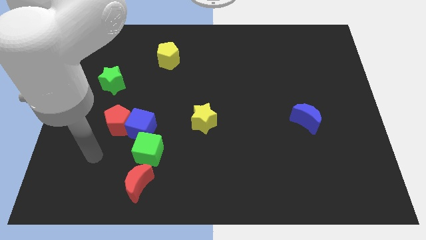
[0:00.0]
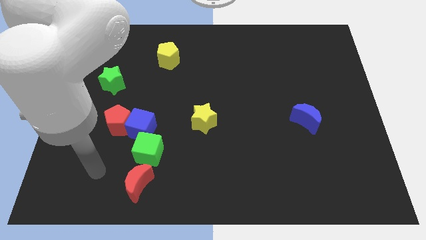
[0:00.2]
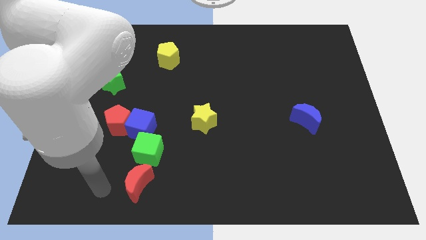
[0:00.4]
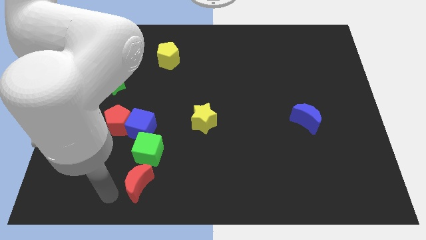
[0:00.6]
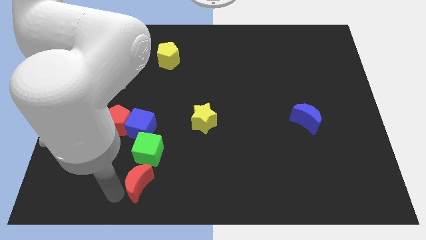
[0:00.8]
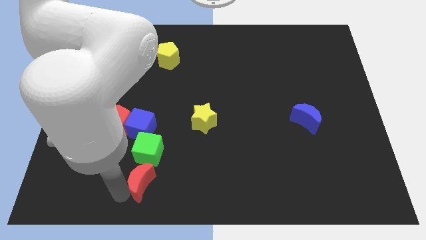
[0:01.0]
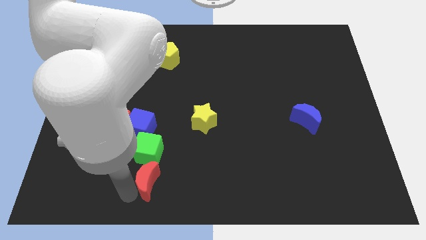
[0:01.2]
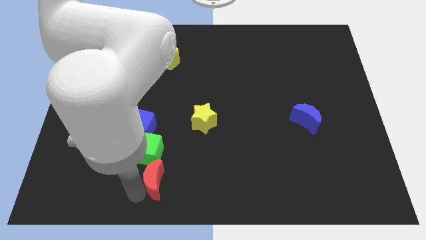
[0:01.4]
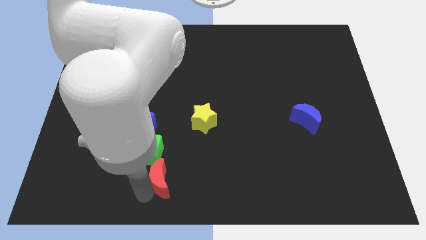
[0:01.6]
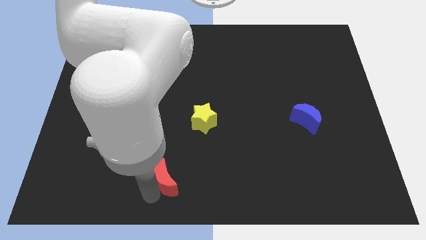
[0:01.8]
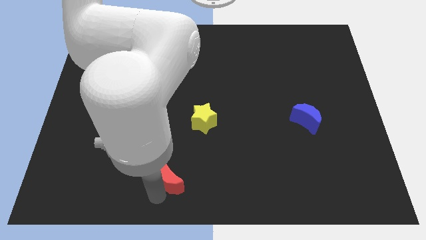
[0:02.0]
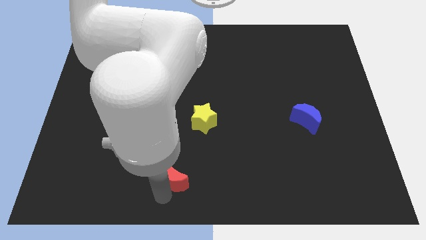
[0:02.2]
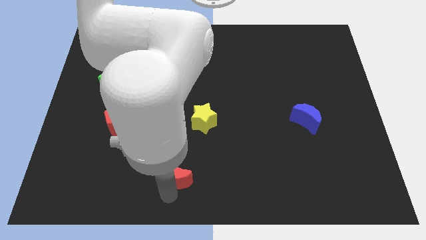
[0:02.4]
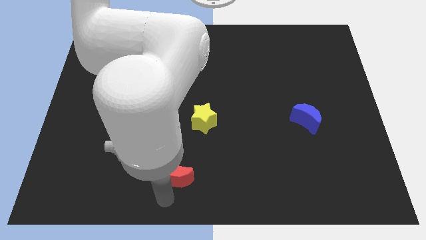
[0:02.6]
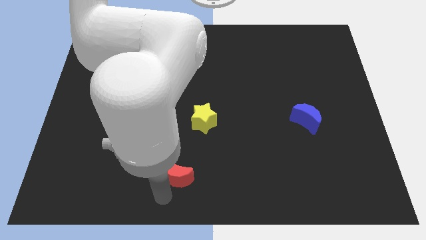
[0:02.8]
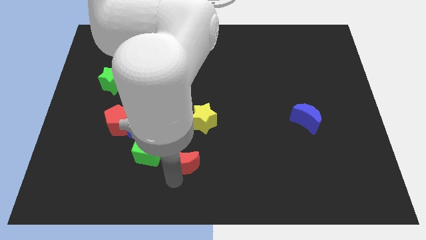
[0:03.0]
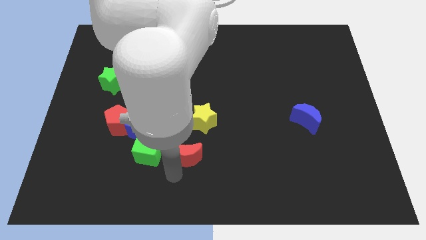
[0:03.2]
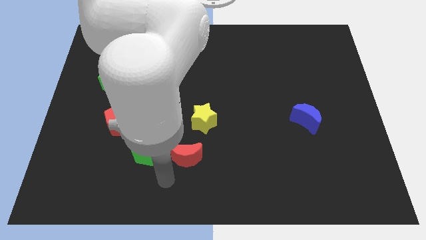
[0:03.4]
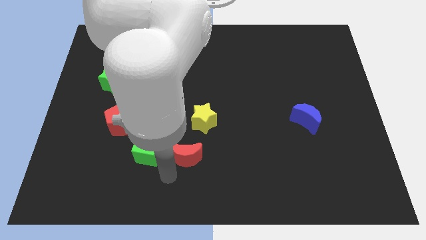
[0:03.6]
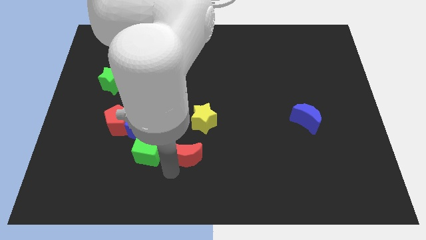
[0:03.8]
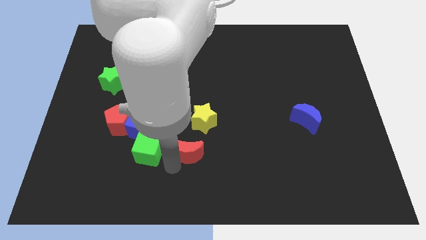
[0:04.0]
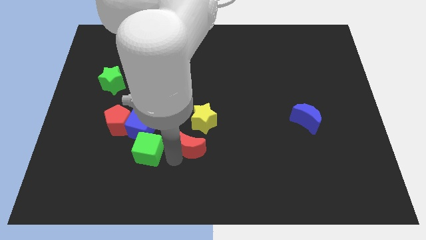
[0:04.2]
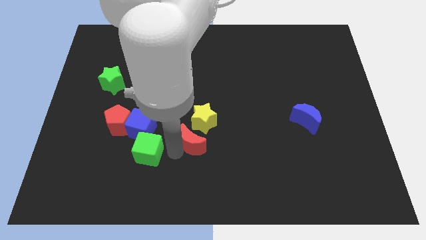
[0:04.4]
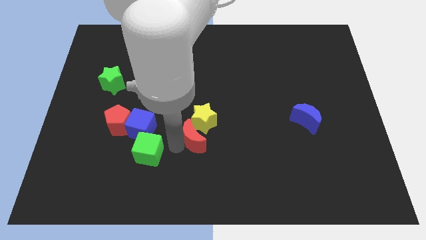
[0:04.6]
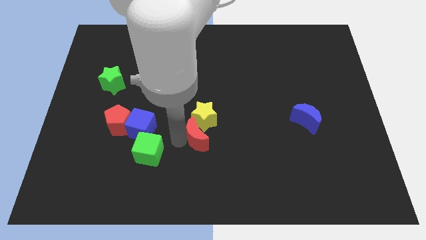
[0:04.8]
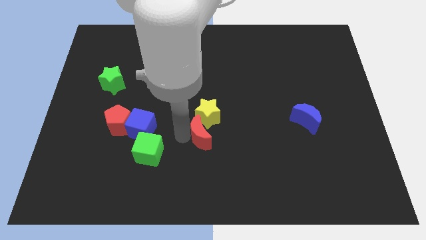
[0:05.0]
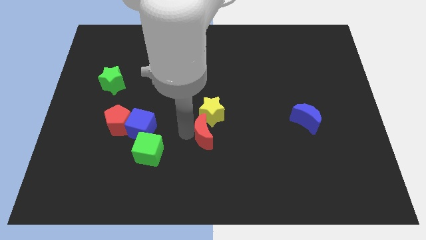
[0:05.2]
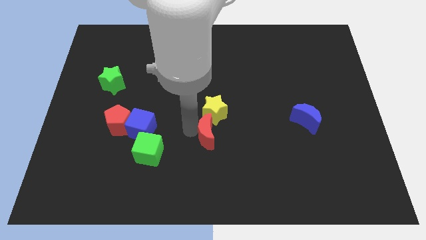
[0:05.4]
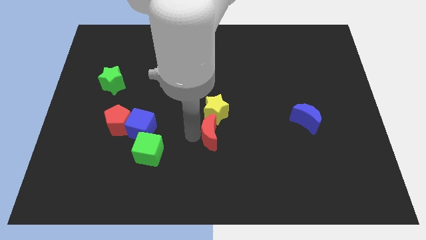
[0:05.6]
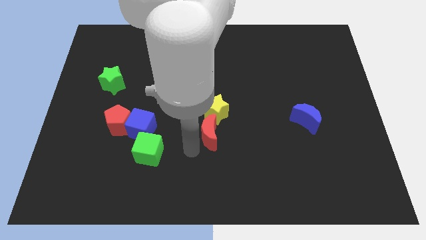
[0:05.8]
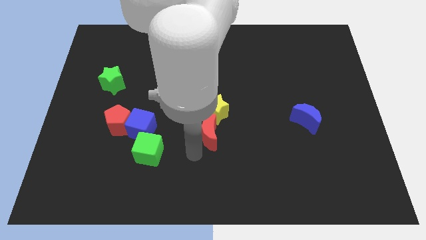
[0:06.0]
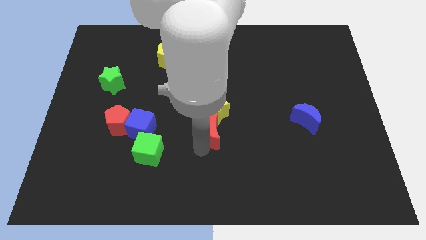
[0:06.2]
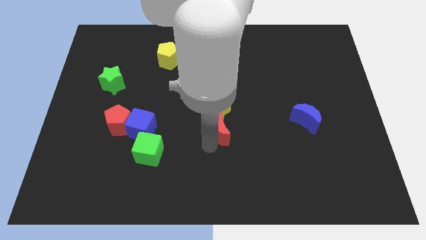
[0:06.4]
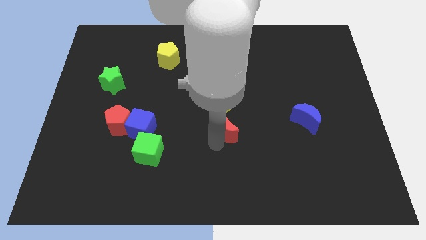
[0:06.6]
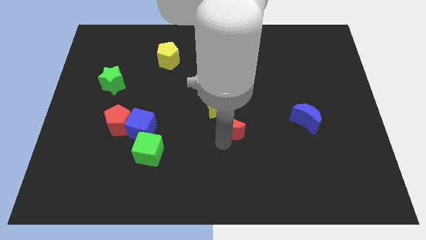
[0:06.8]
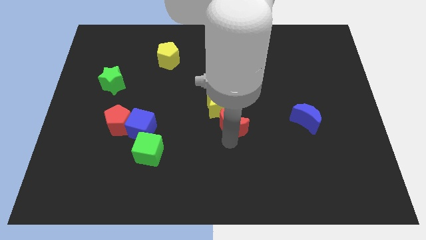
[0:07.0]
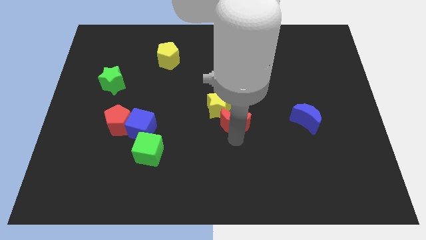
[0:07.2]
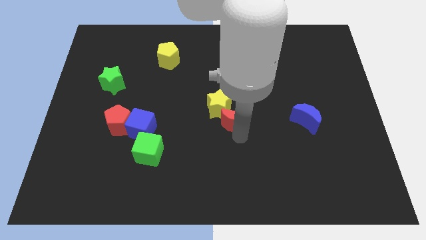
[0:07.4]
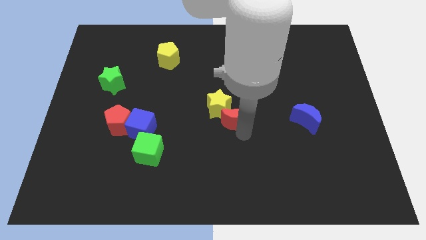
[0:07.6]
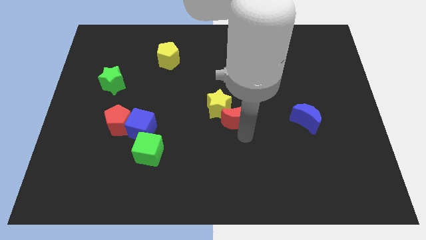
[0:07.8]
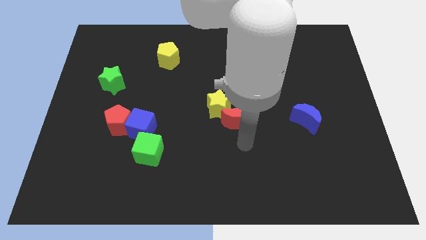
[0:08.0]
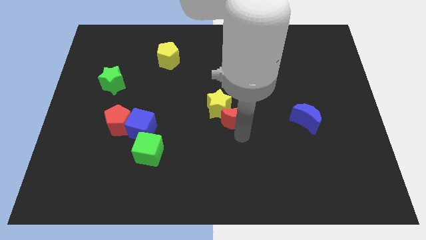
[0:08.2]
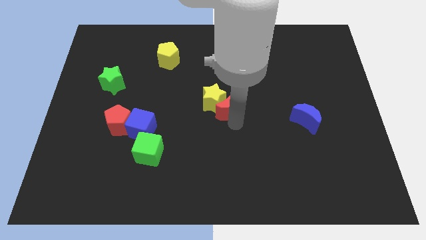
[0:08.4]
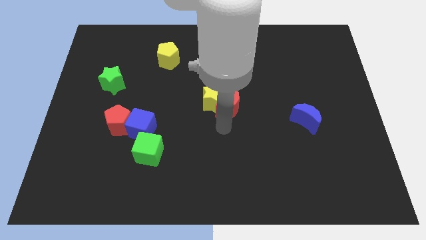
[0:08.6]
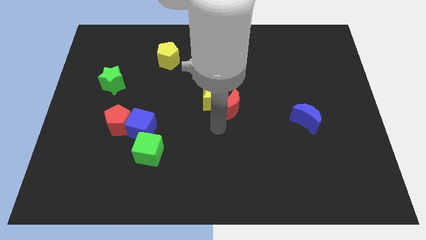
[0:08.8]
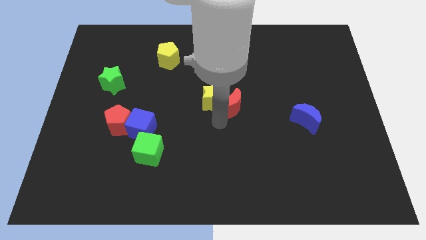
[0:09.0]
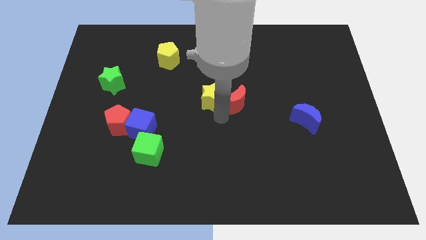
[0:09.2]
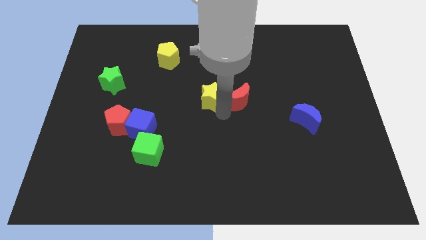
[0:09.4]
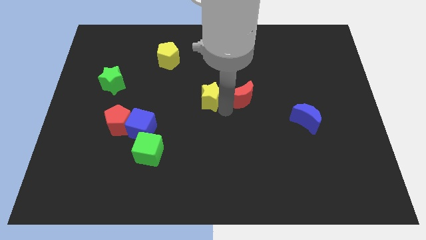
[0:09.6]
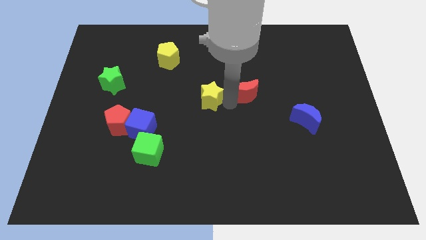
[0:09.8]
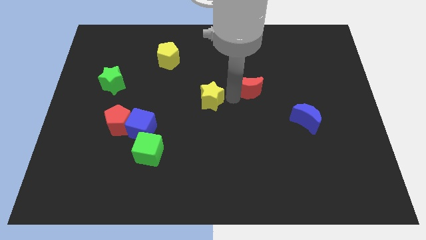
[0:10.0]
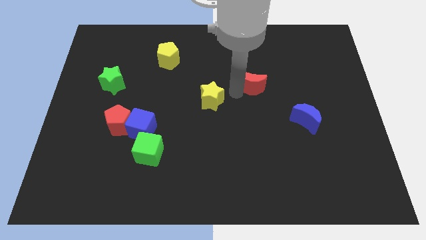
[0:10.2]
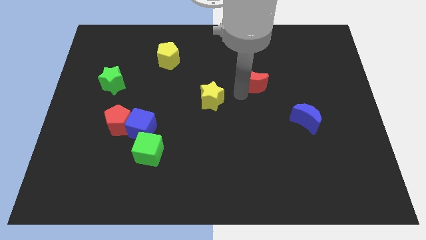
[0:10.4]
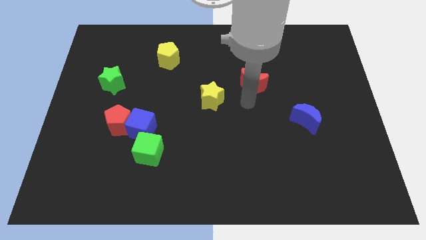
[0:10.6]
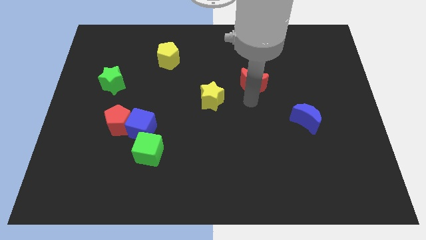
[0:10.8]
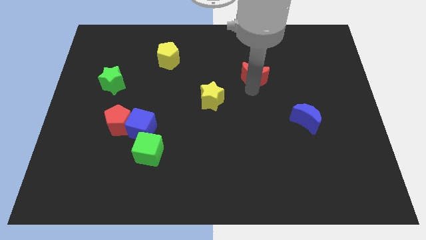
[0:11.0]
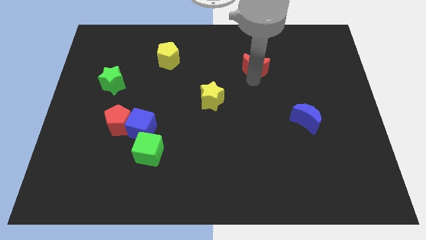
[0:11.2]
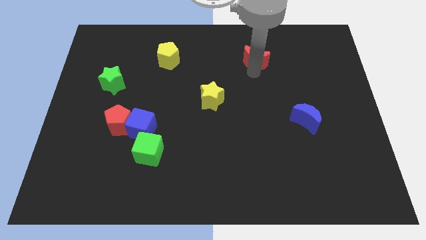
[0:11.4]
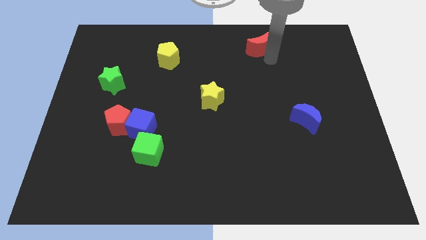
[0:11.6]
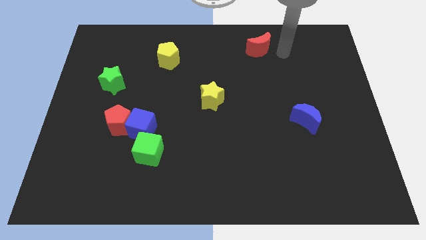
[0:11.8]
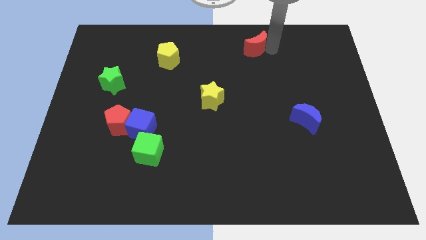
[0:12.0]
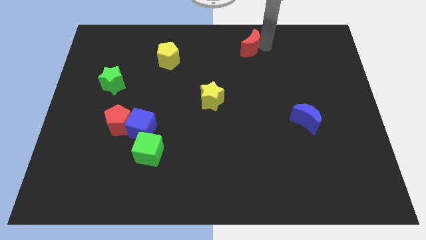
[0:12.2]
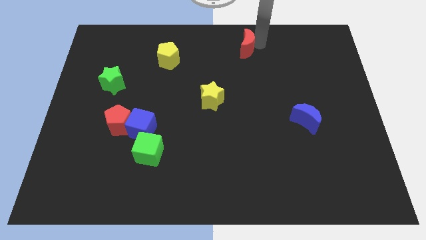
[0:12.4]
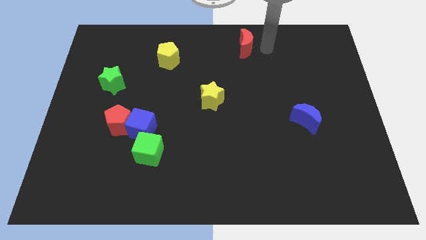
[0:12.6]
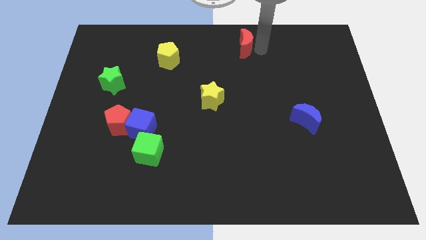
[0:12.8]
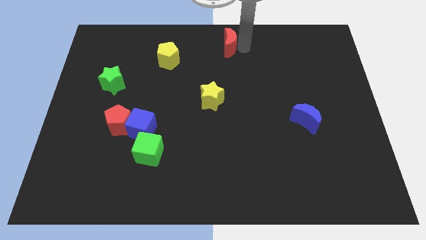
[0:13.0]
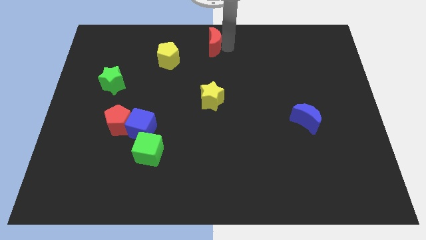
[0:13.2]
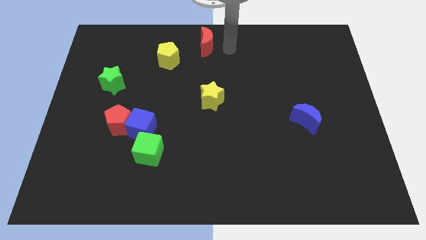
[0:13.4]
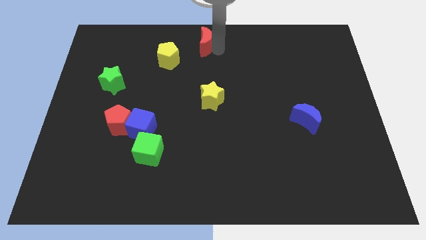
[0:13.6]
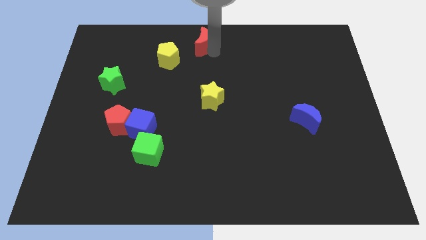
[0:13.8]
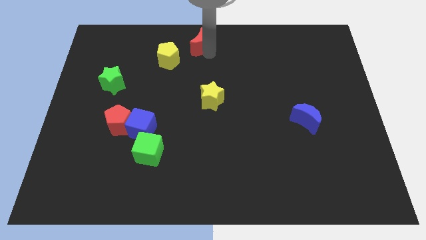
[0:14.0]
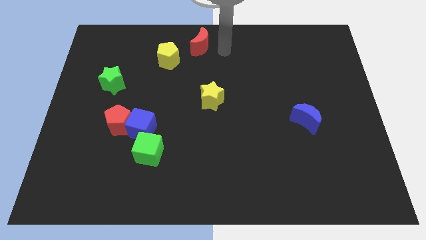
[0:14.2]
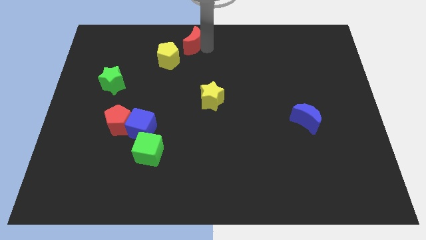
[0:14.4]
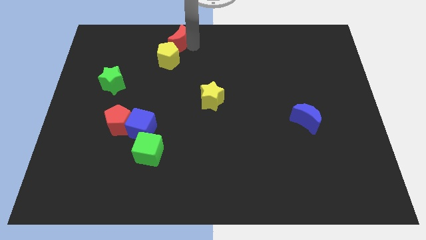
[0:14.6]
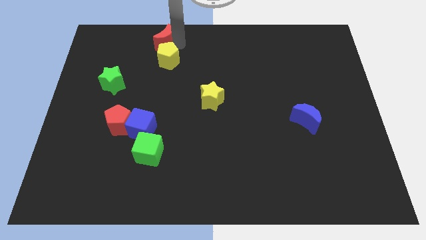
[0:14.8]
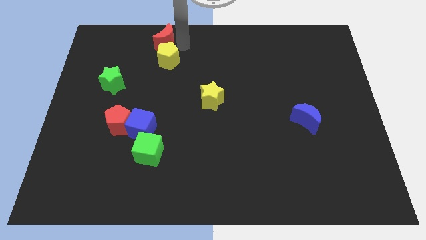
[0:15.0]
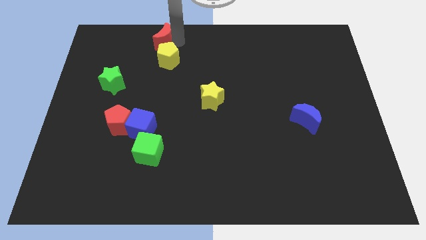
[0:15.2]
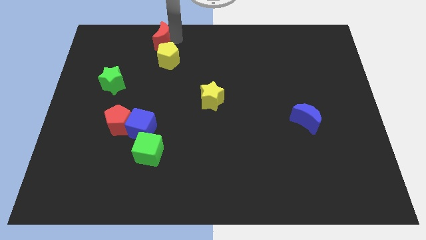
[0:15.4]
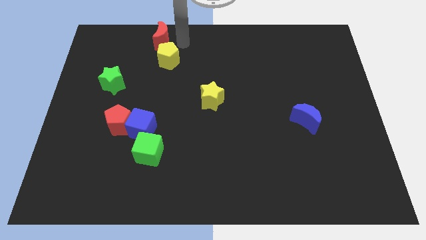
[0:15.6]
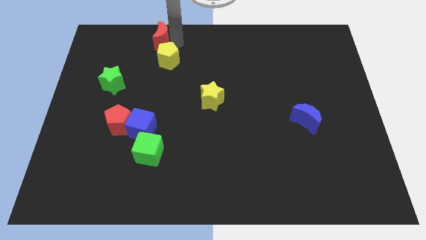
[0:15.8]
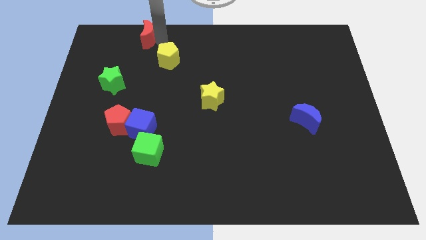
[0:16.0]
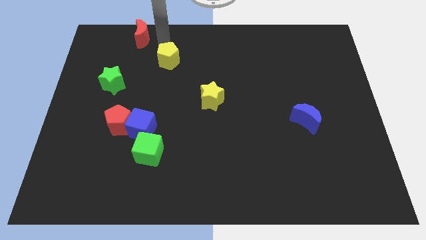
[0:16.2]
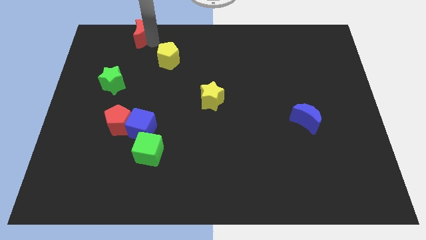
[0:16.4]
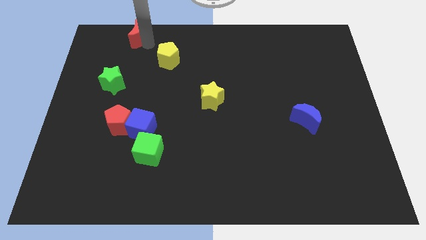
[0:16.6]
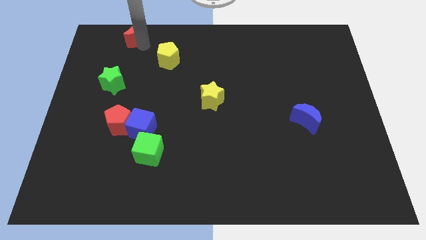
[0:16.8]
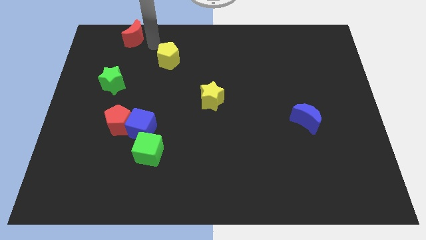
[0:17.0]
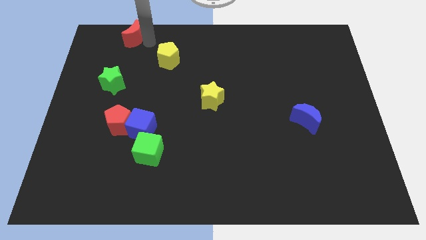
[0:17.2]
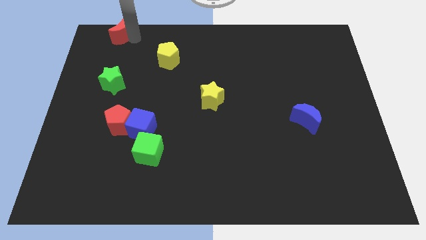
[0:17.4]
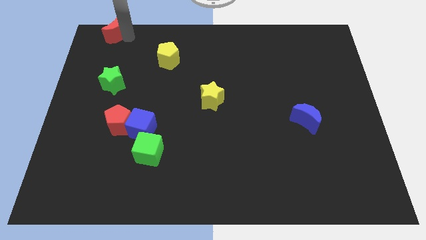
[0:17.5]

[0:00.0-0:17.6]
slide the red moon to the upper left corner
